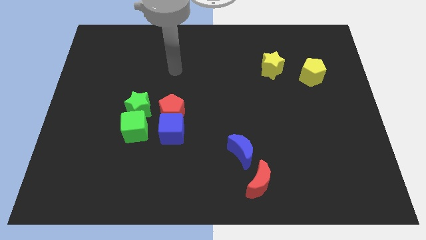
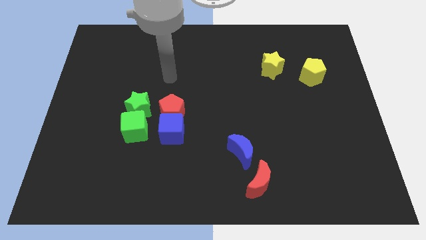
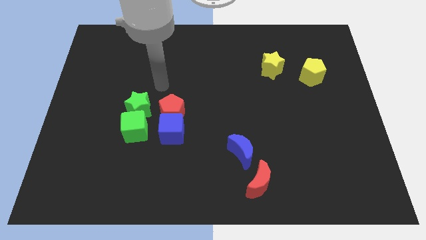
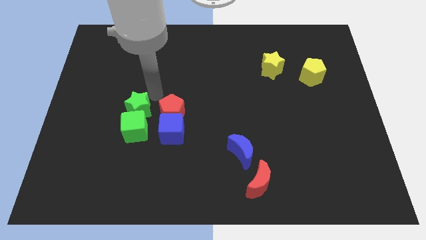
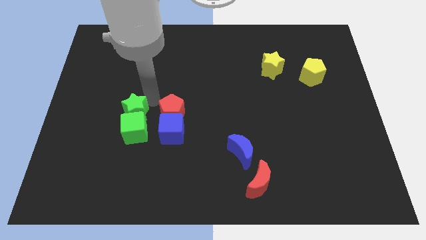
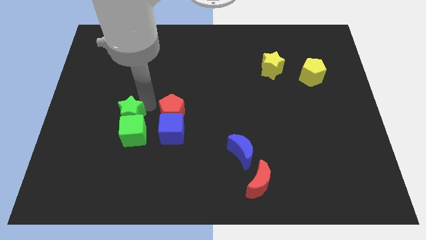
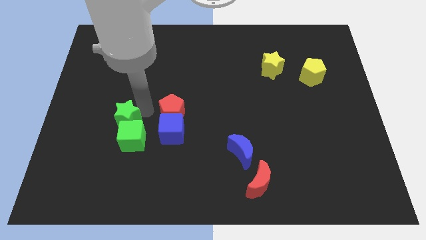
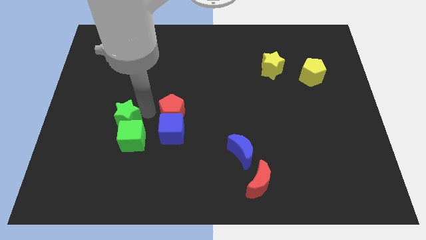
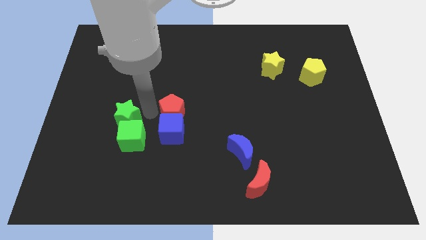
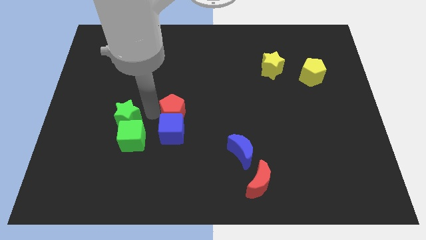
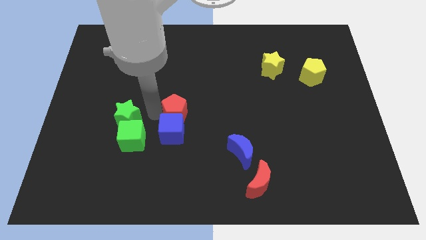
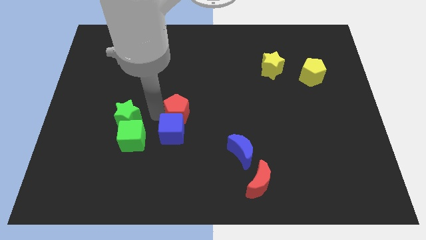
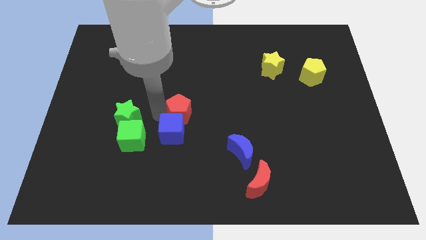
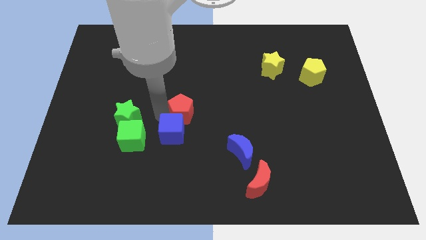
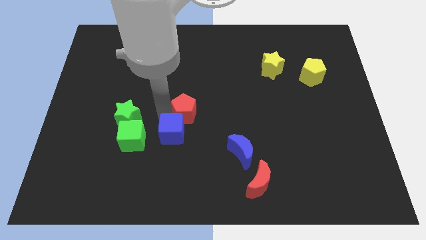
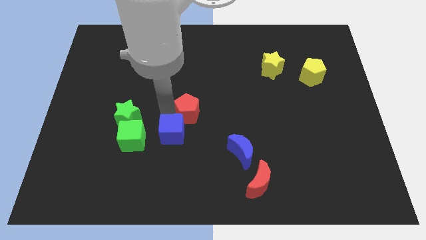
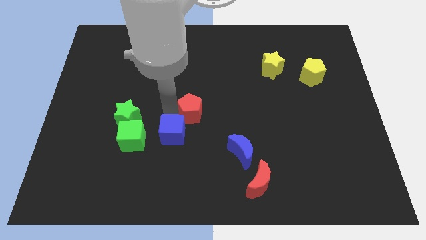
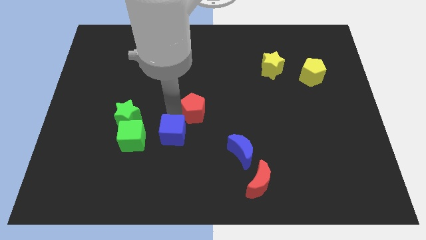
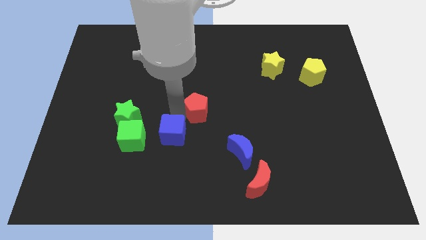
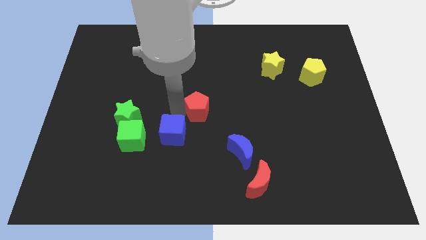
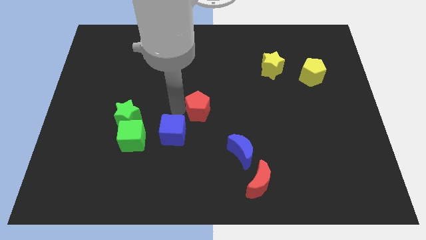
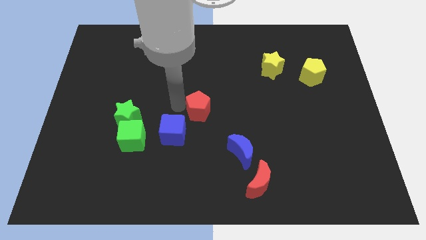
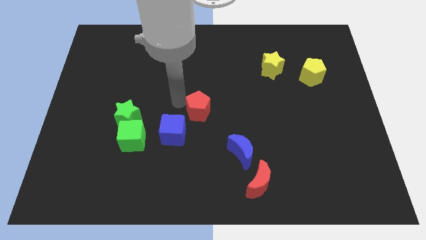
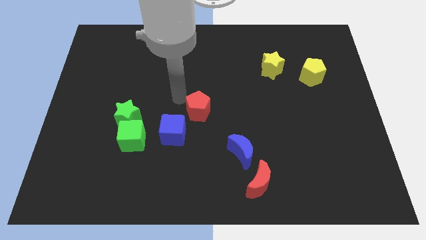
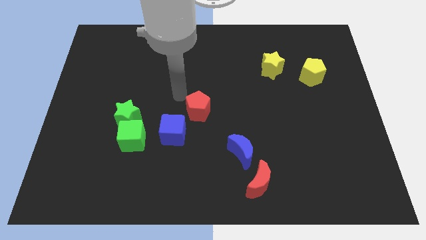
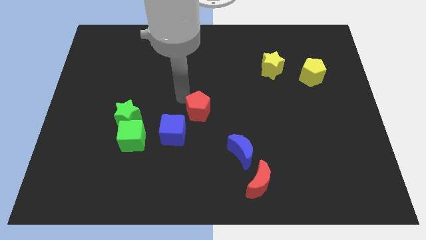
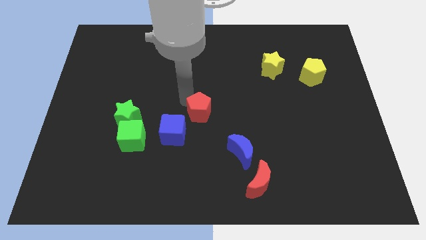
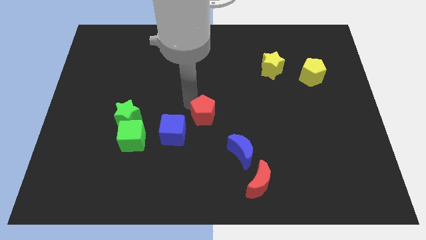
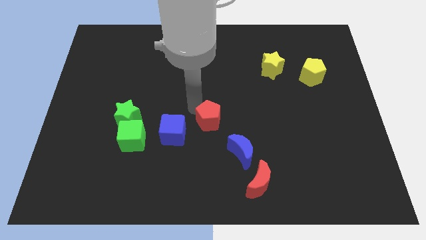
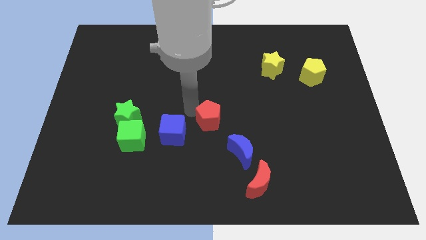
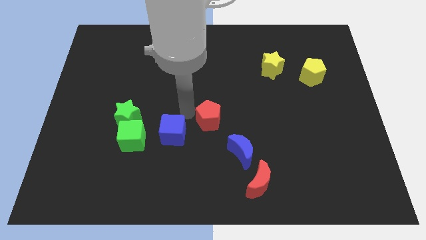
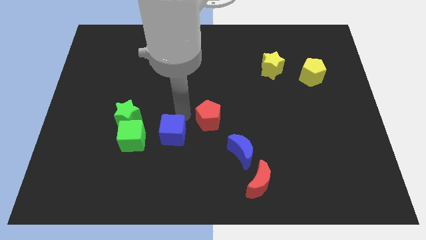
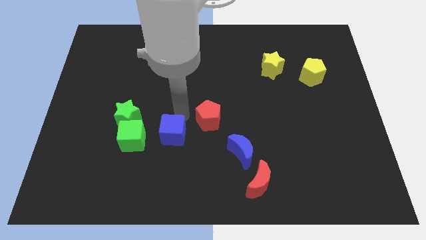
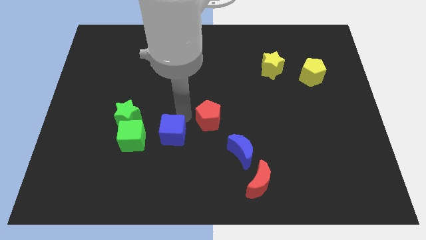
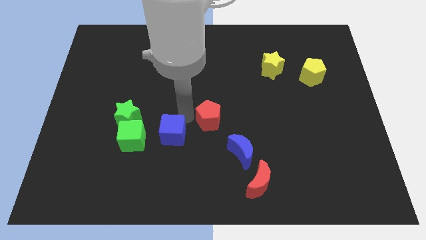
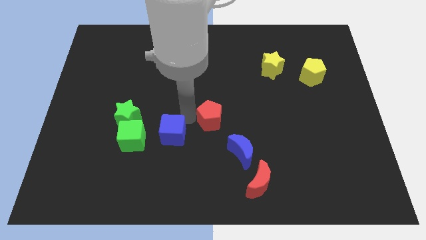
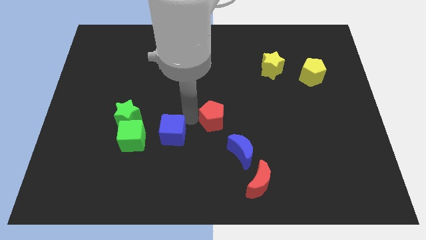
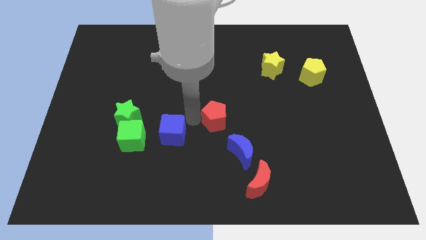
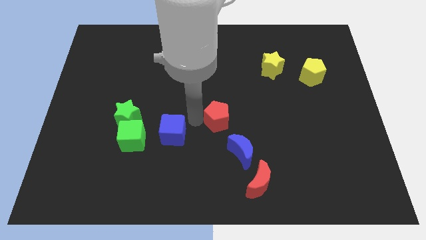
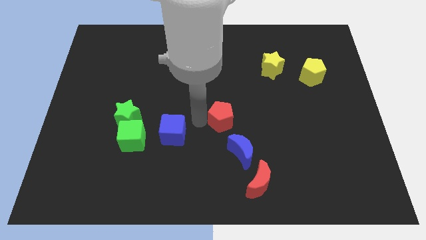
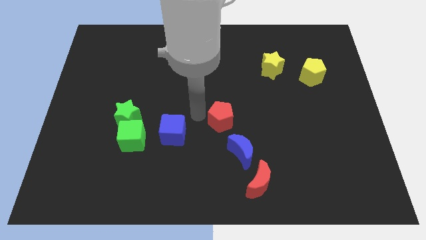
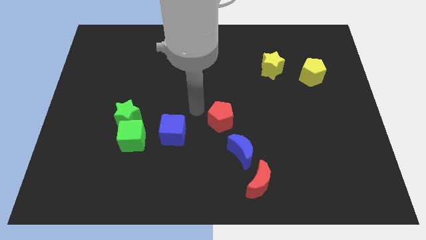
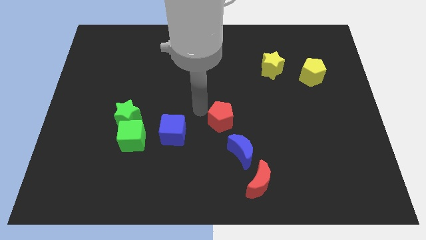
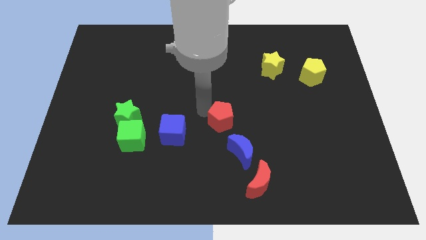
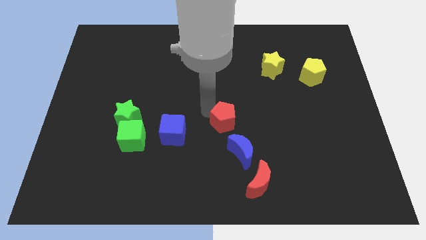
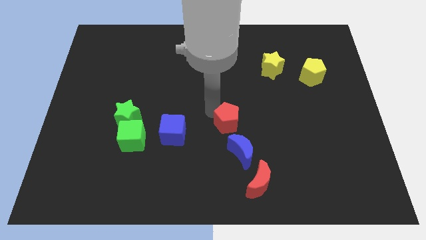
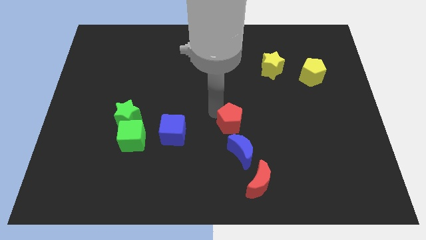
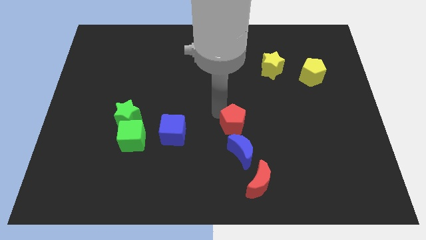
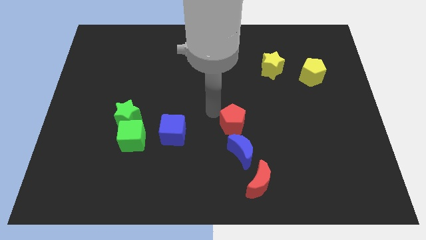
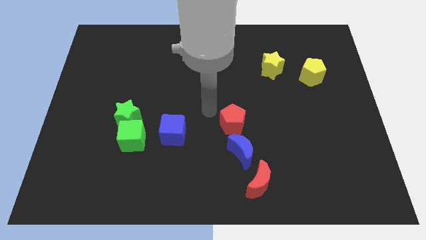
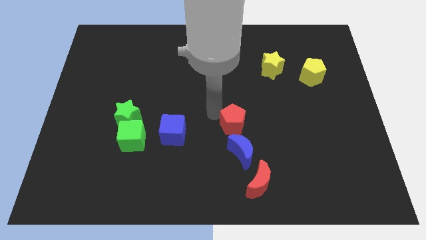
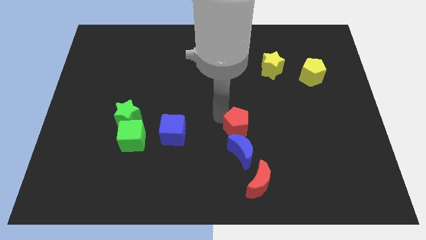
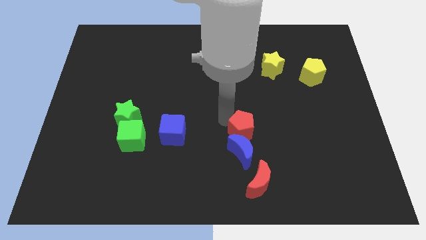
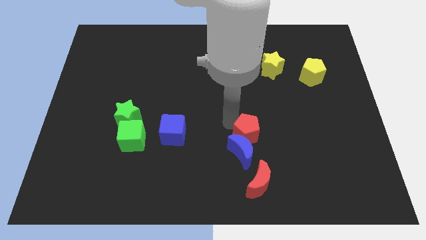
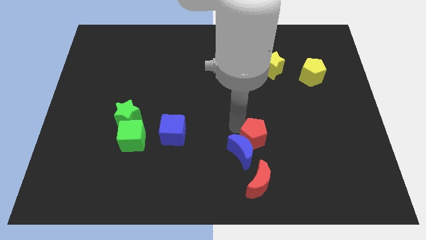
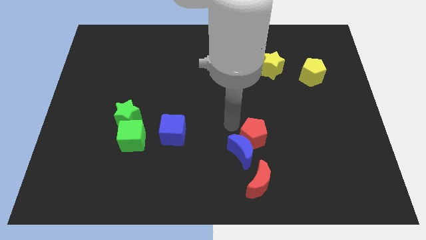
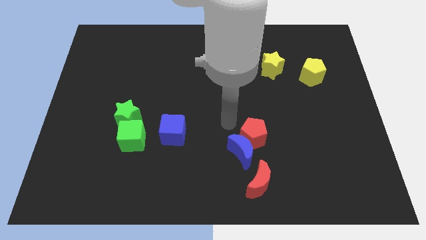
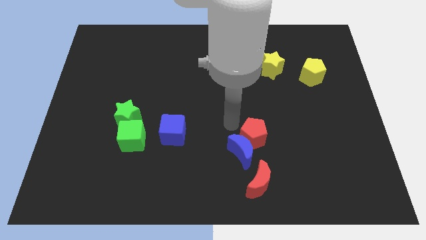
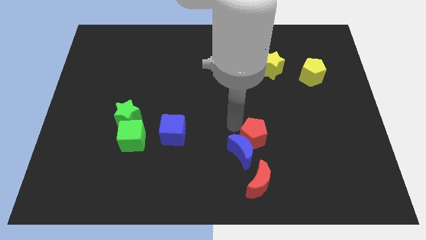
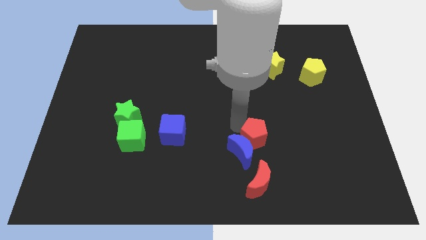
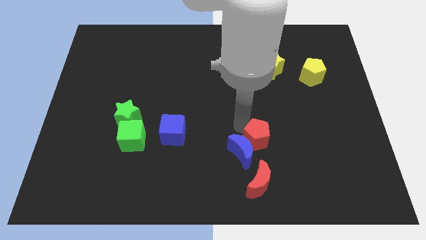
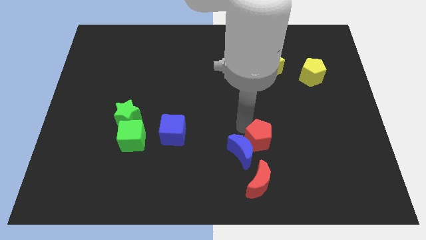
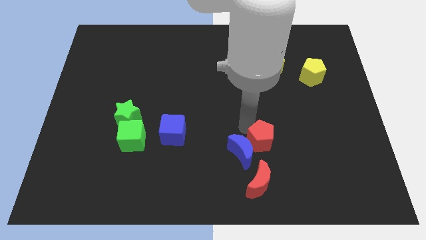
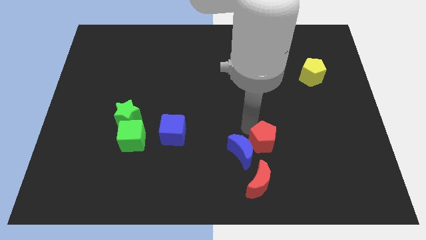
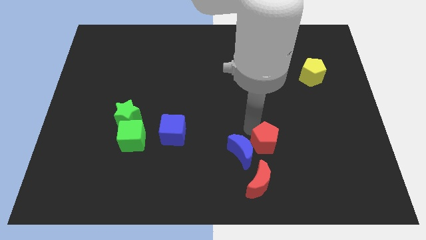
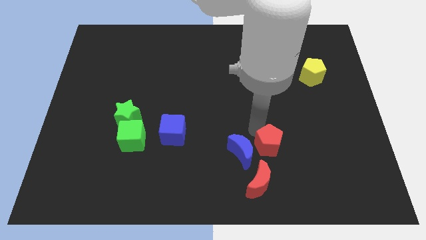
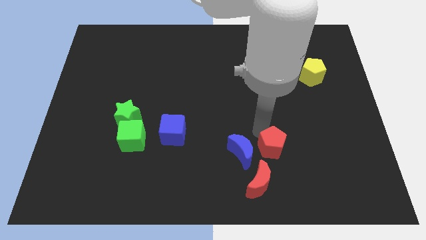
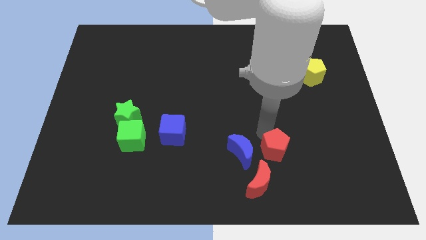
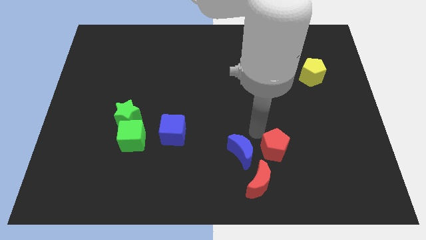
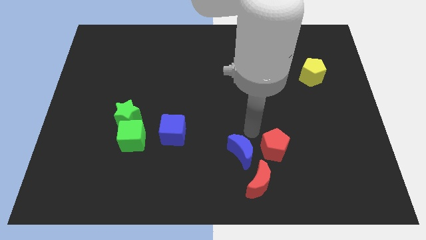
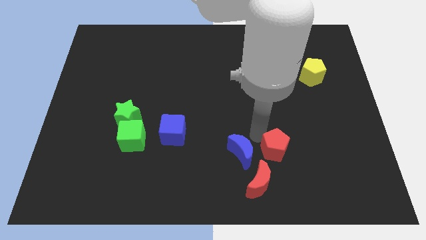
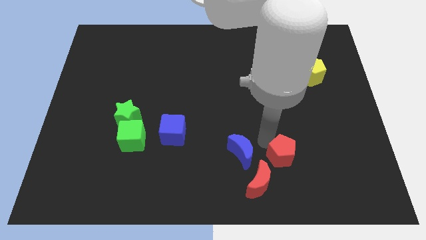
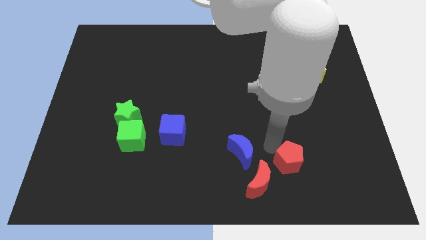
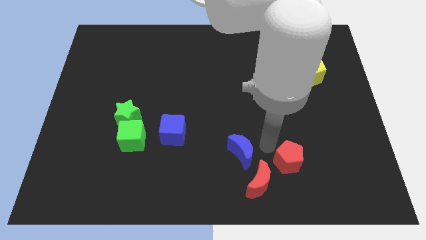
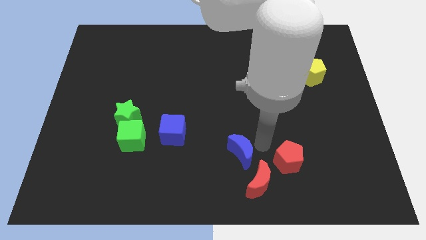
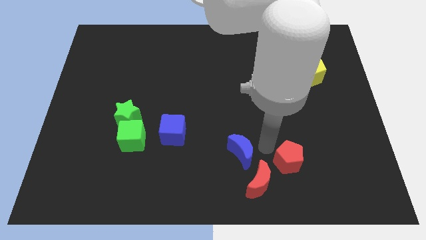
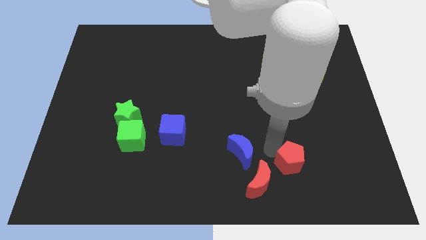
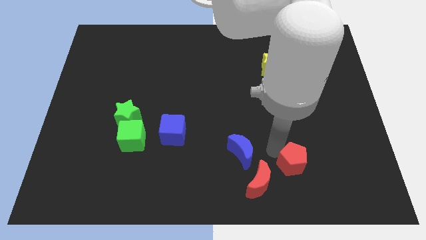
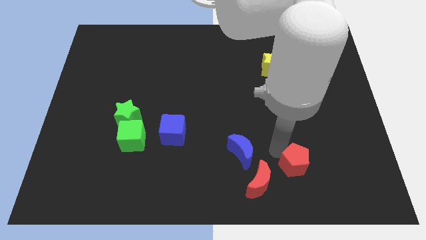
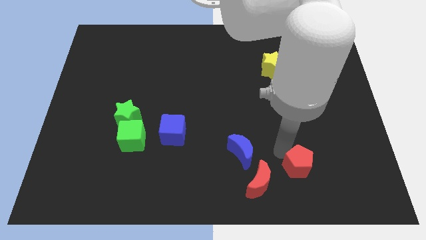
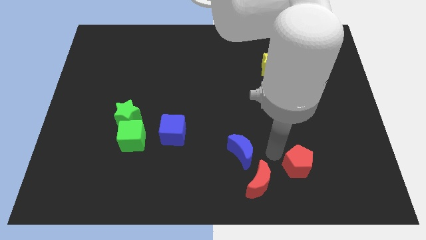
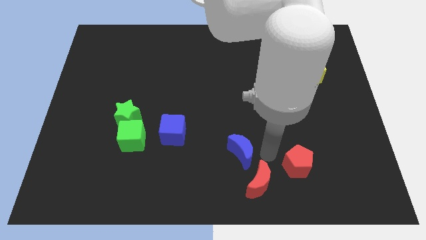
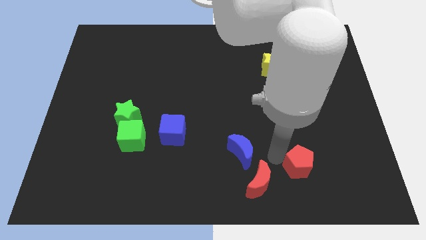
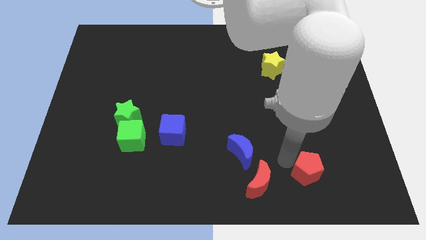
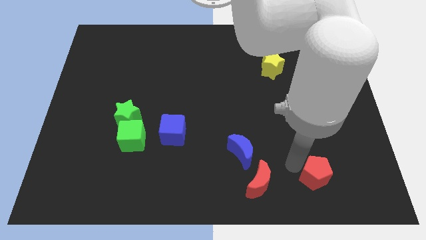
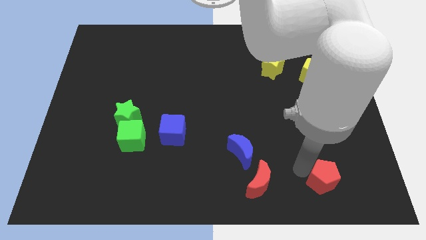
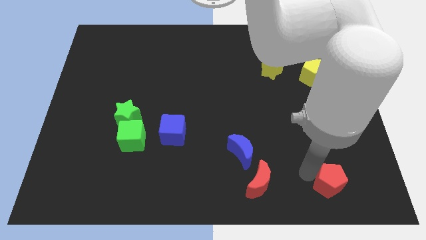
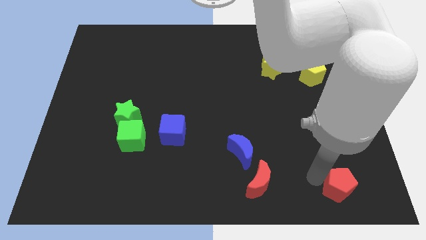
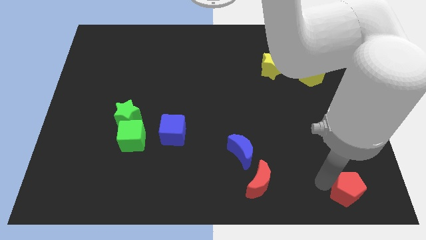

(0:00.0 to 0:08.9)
push the red pentagon to the bottom right
